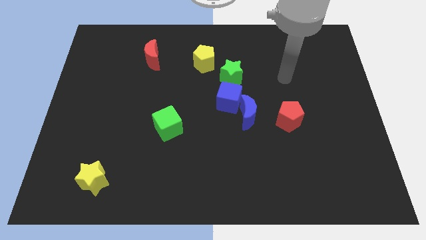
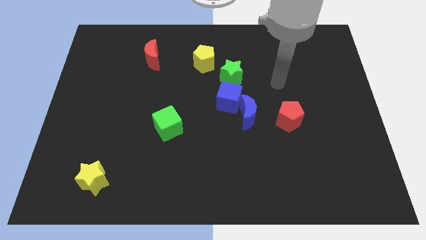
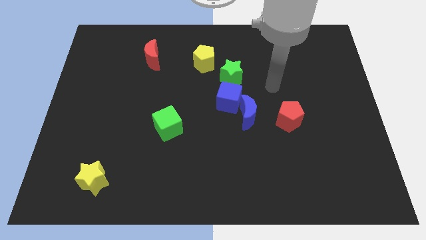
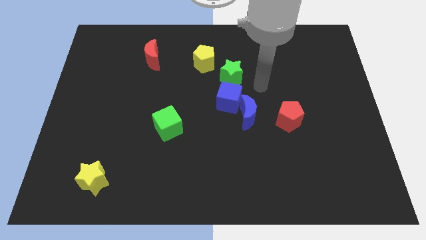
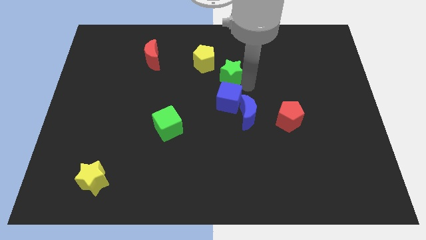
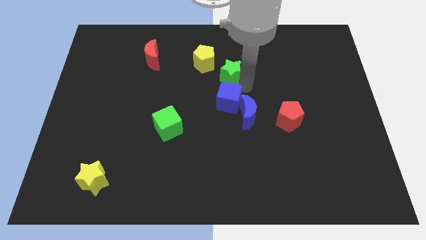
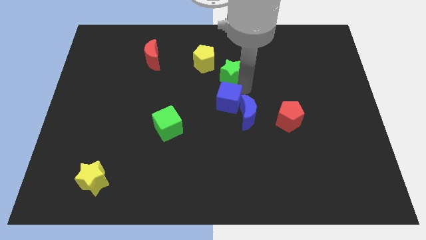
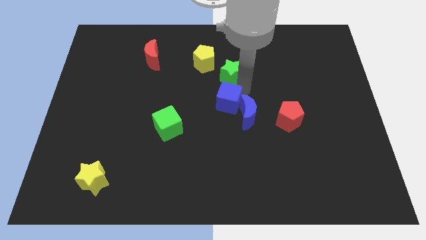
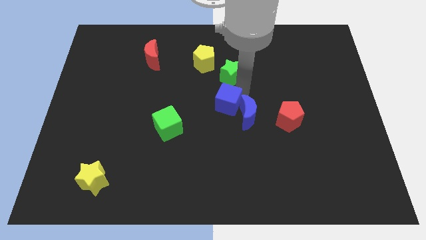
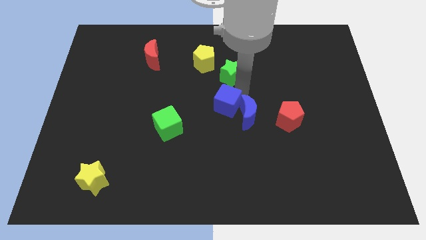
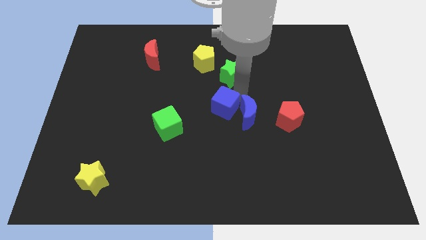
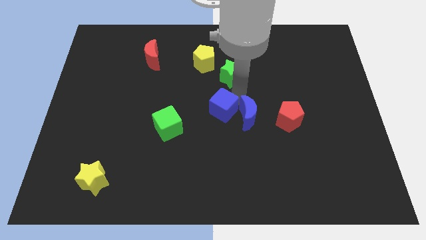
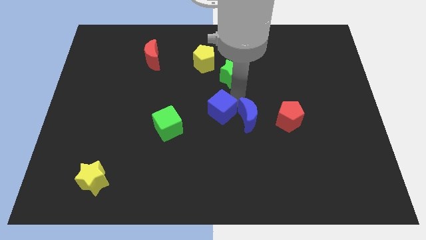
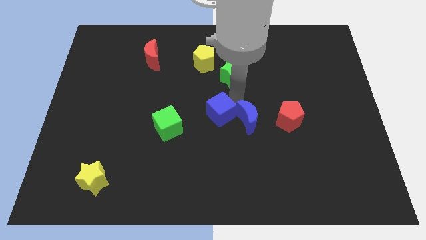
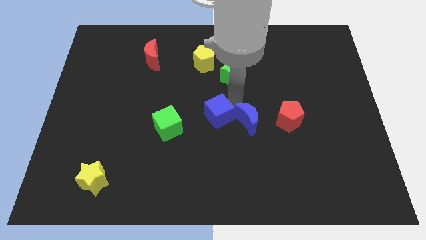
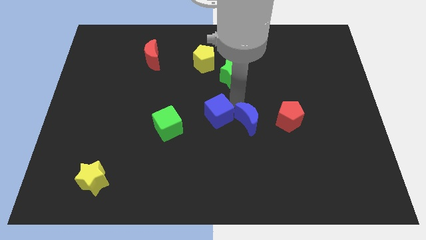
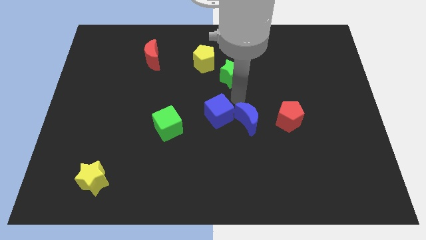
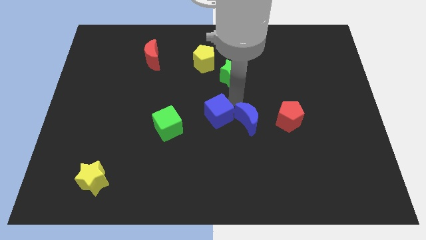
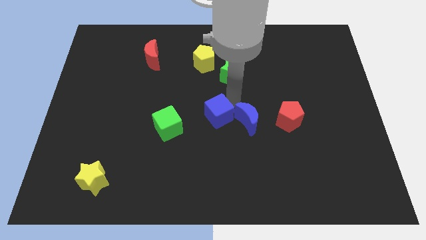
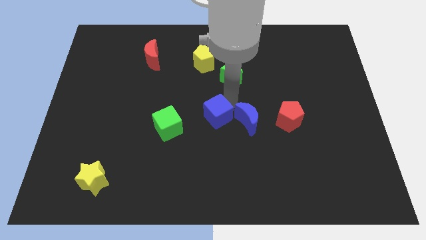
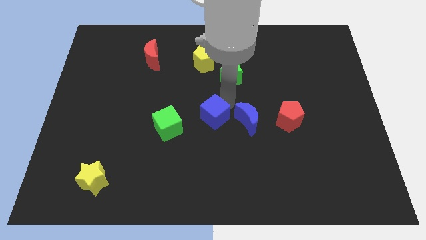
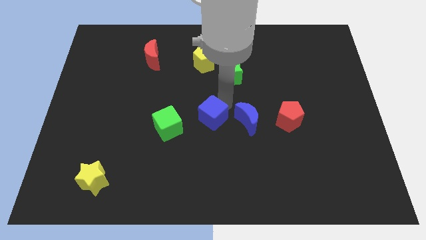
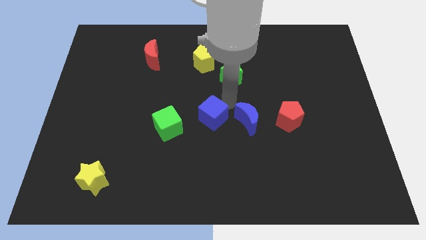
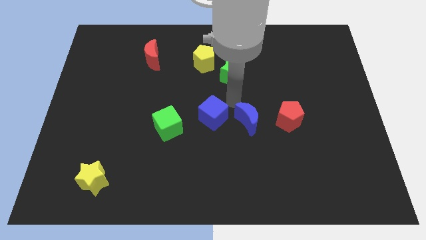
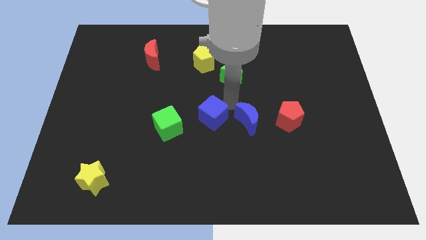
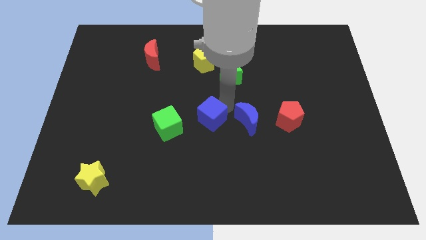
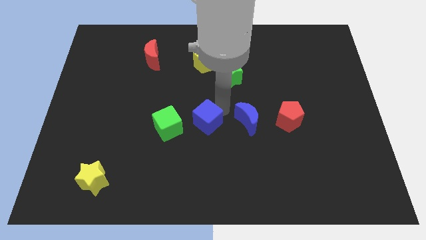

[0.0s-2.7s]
pull the blue cube apart from the blue moon and green star

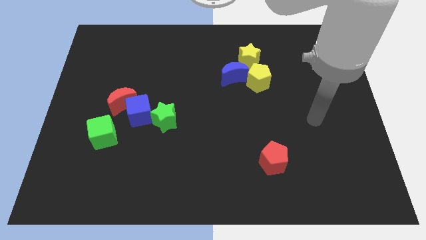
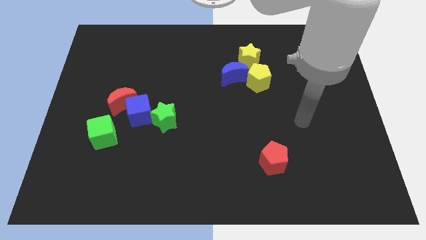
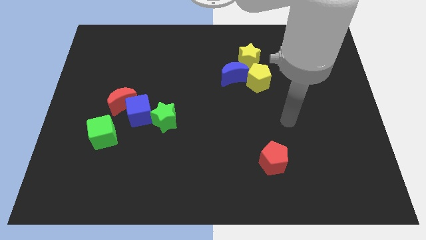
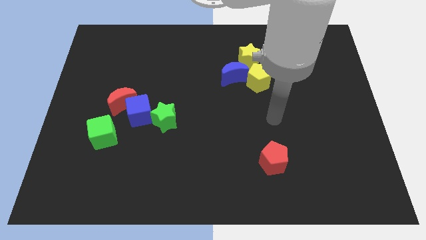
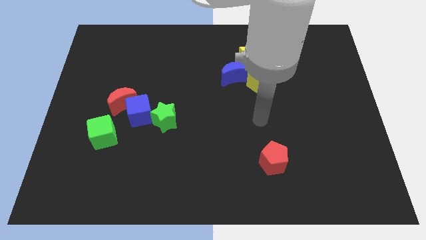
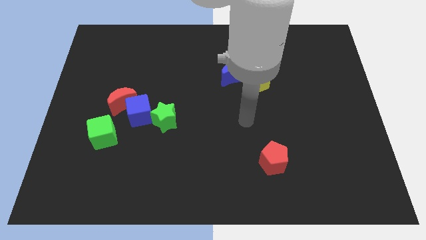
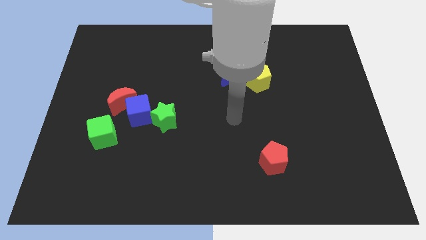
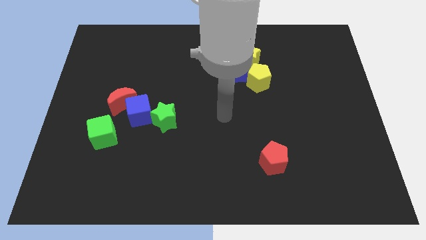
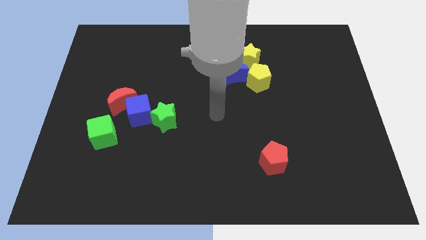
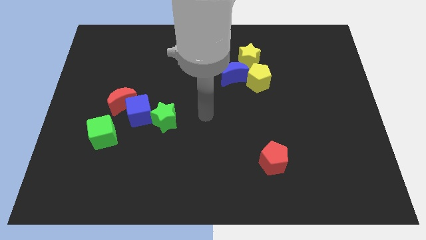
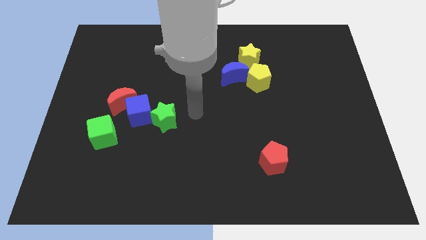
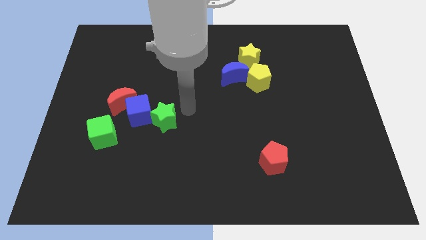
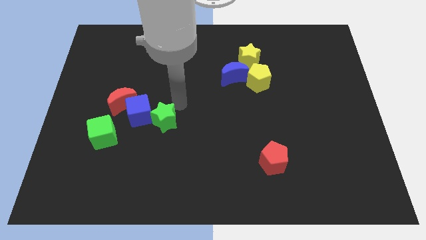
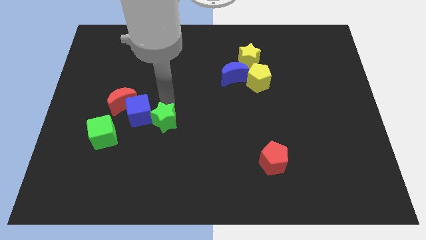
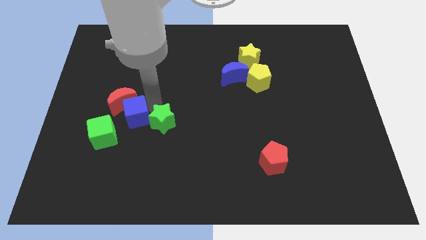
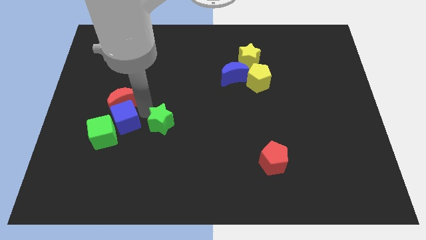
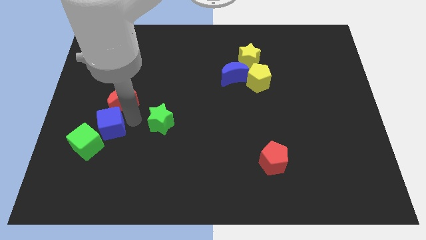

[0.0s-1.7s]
separate the green star from the blue cube

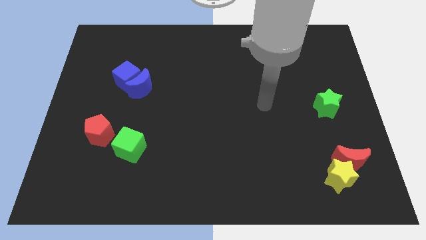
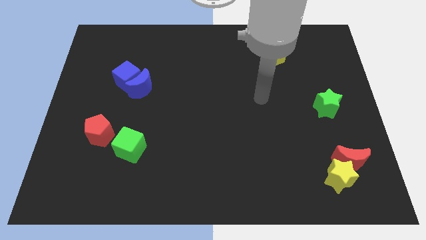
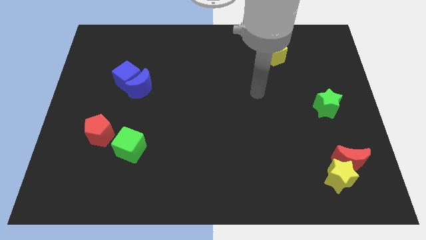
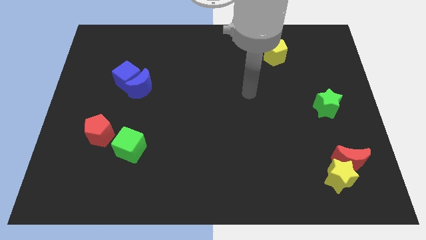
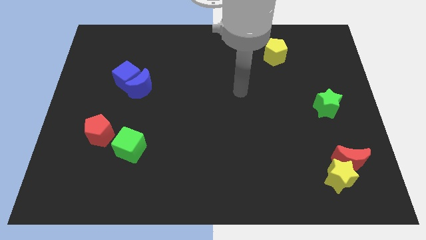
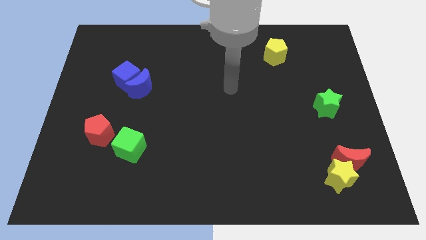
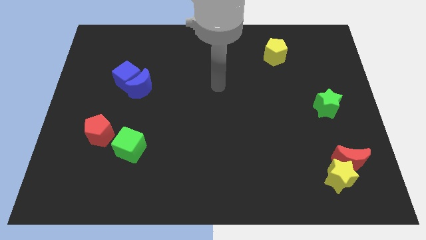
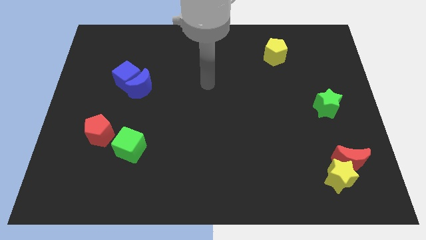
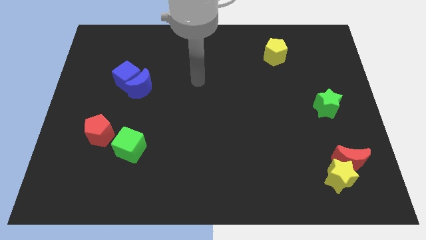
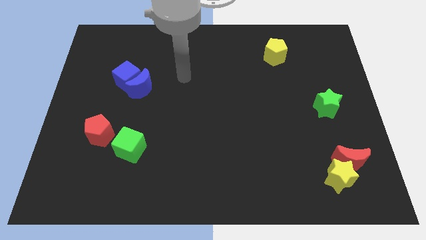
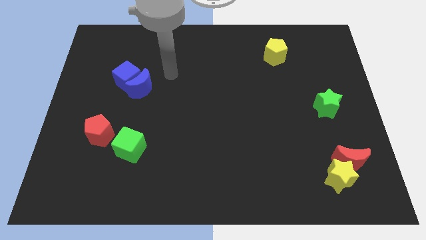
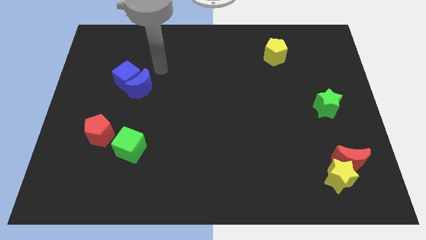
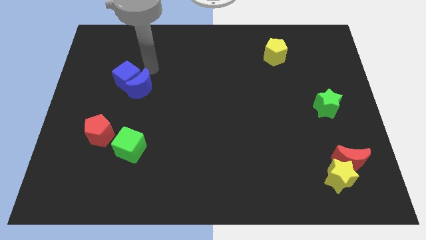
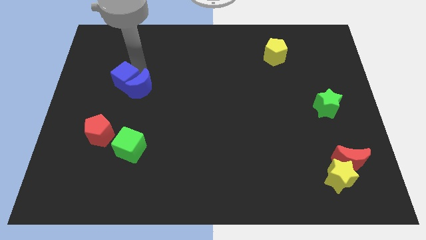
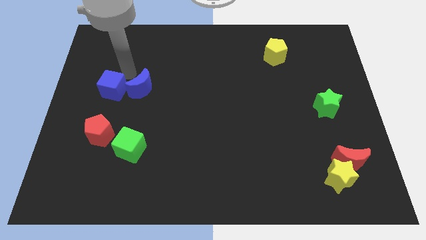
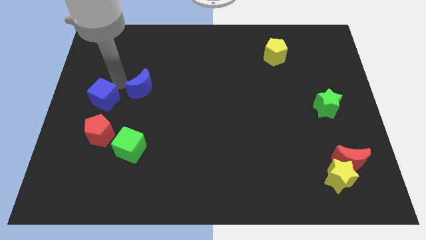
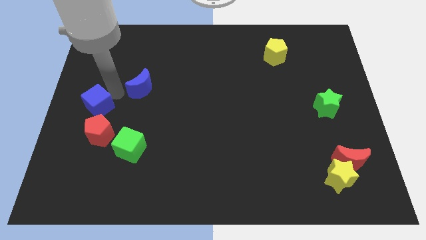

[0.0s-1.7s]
separate the blue moon from the blue cube

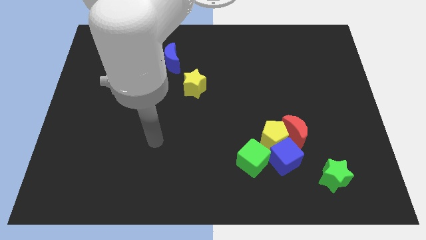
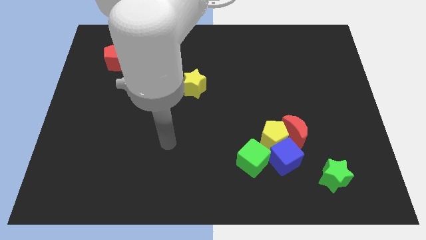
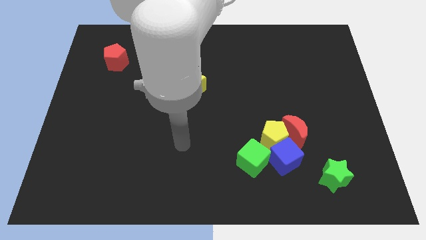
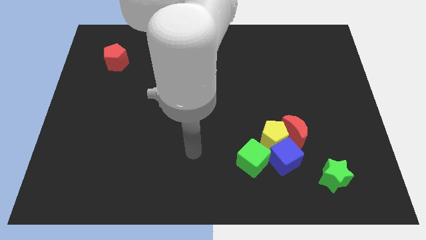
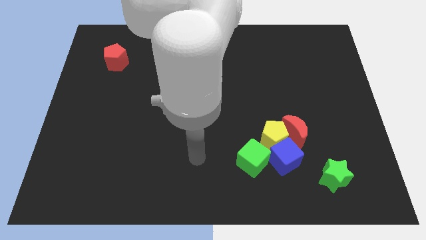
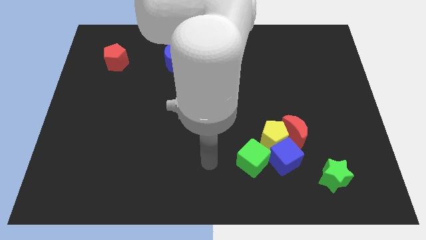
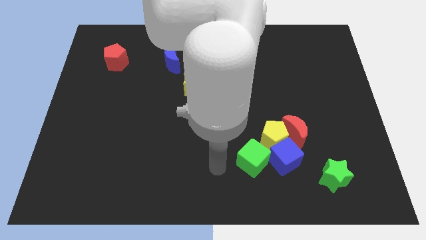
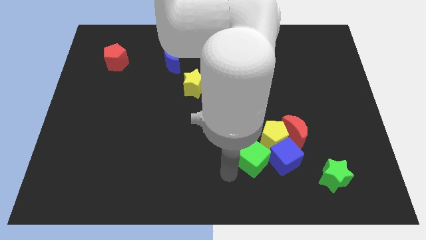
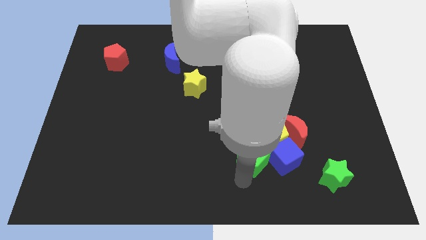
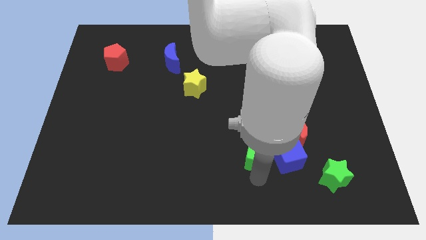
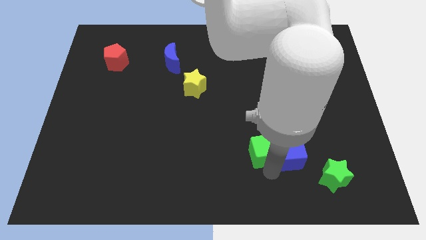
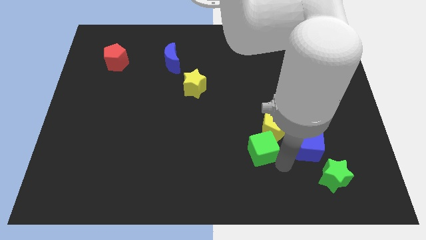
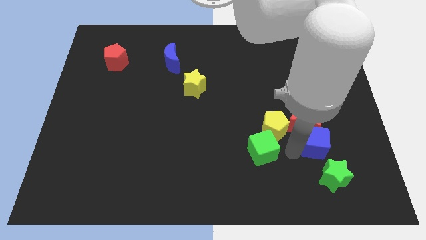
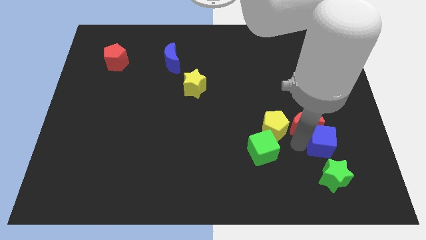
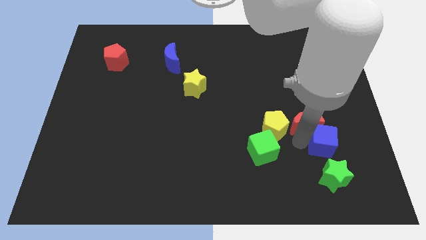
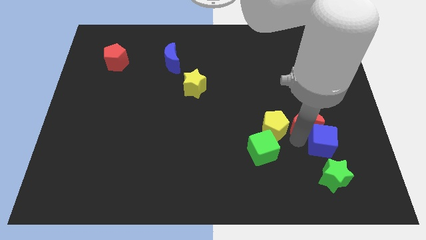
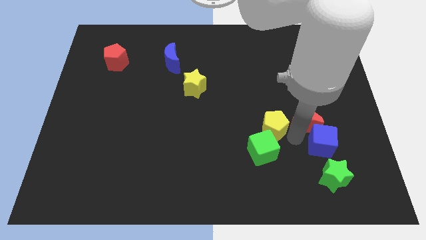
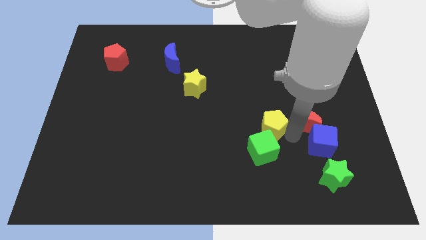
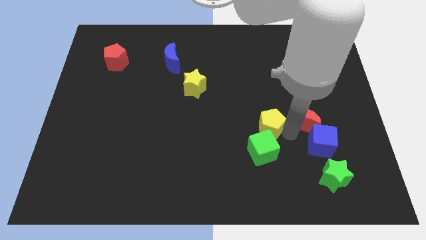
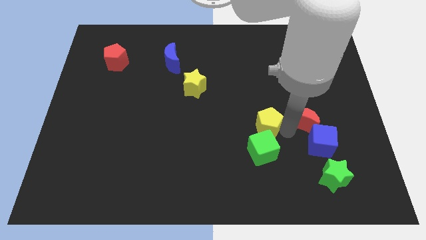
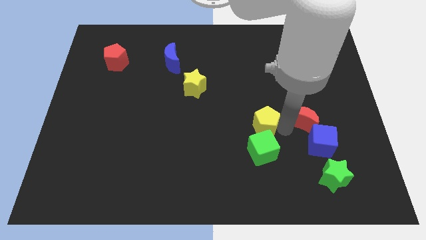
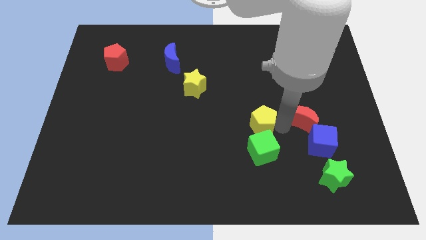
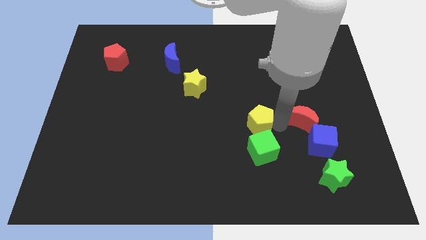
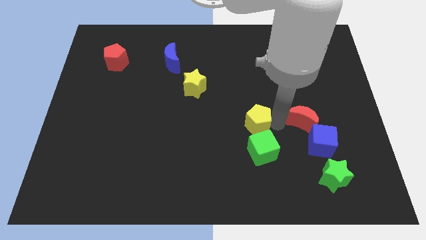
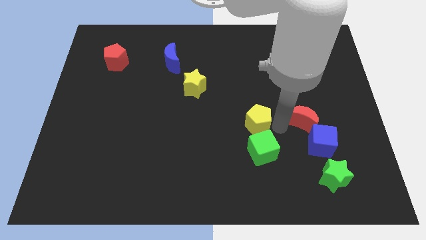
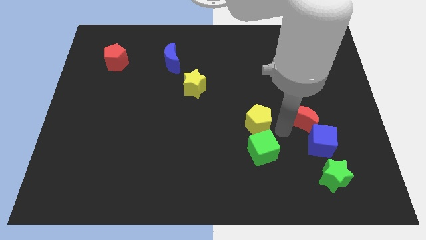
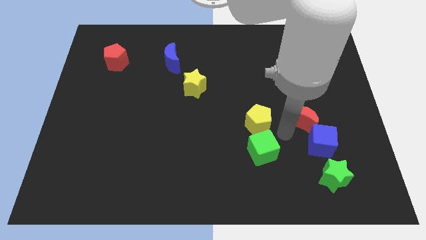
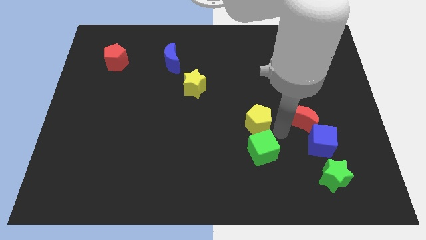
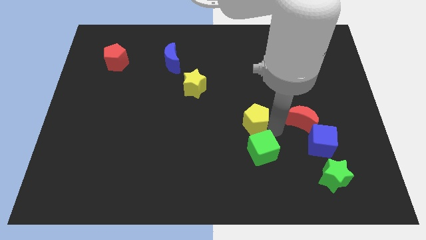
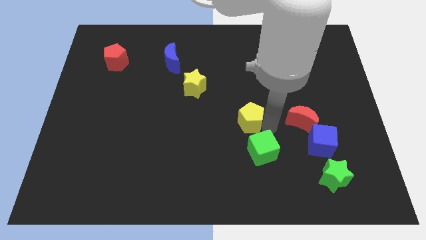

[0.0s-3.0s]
pull the yellow pentagon apart from the clump

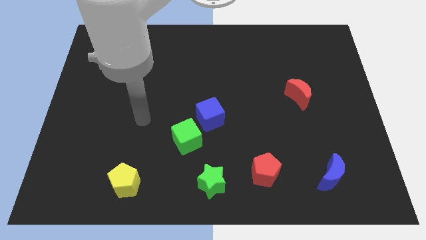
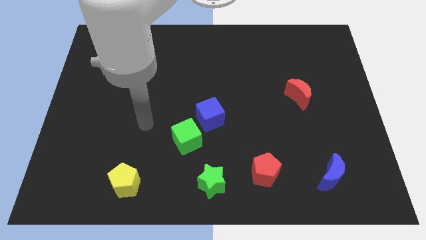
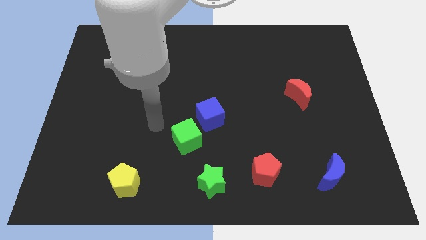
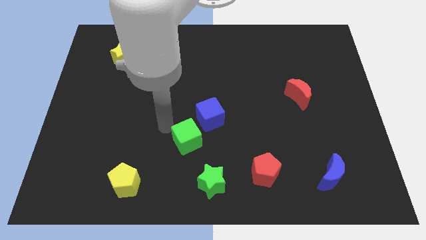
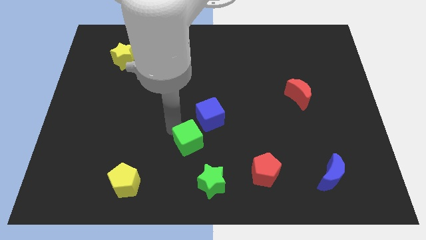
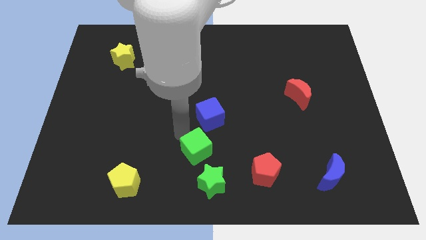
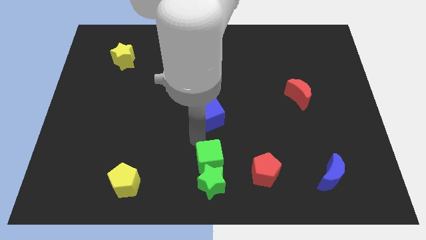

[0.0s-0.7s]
separate the blue cube from the green cube
